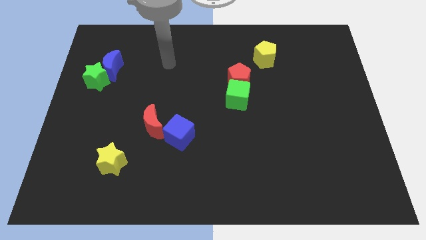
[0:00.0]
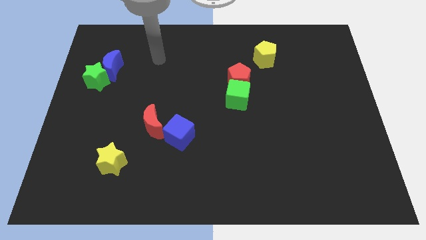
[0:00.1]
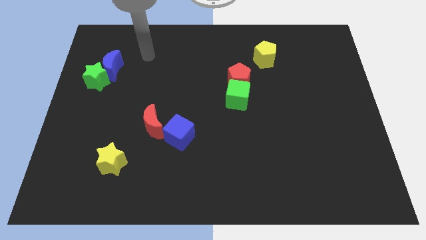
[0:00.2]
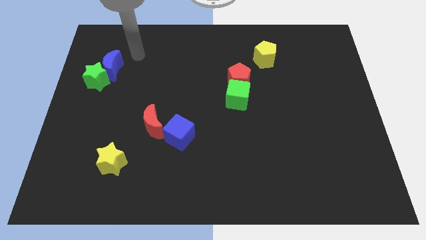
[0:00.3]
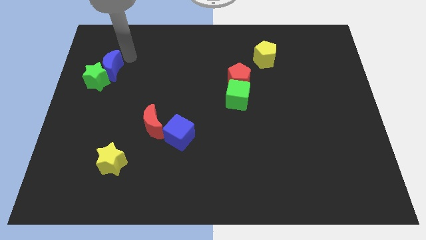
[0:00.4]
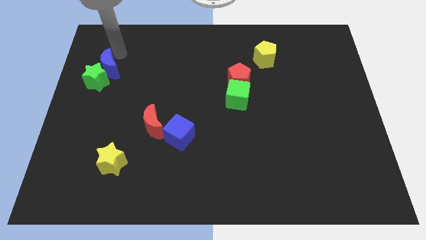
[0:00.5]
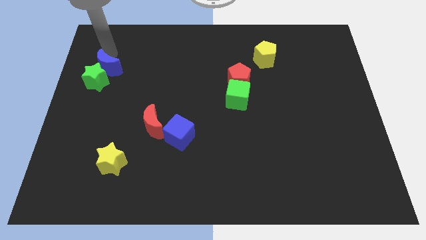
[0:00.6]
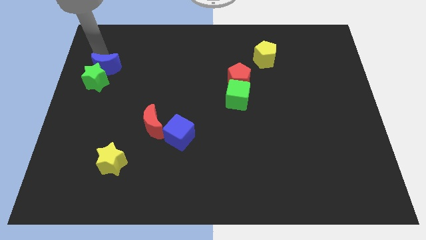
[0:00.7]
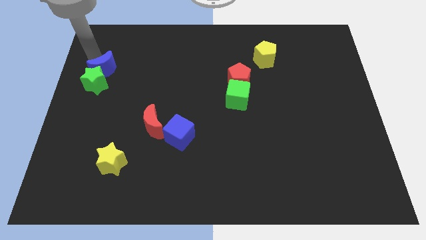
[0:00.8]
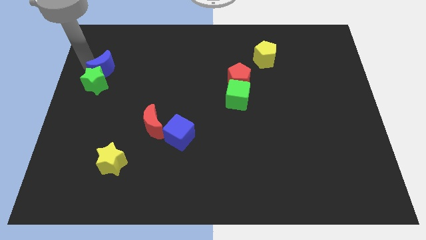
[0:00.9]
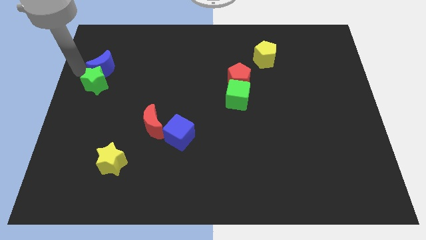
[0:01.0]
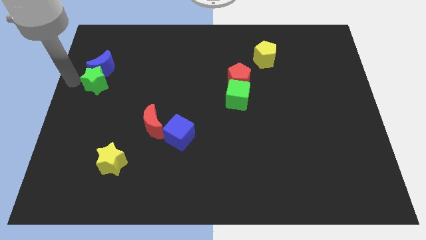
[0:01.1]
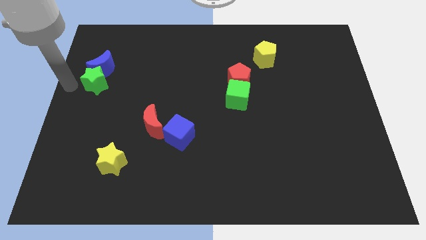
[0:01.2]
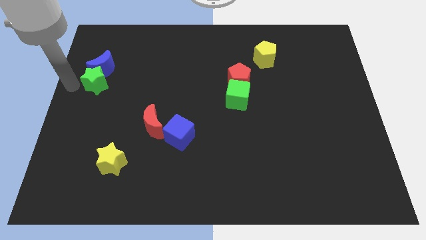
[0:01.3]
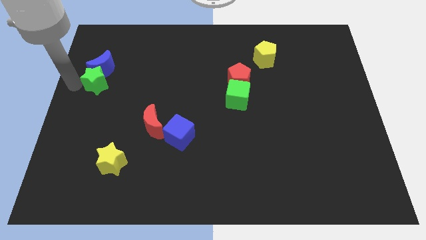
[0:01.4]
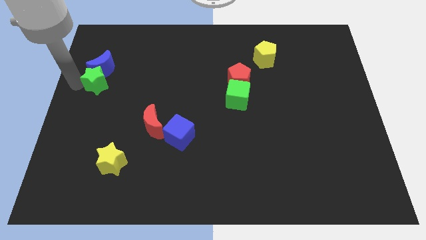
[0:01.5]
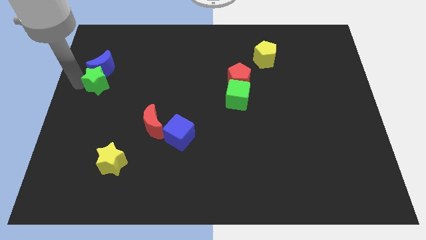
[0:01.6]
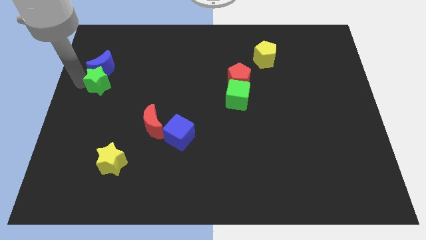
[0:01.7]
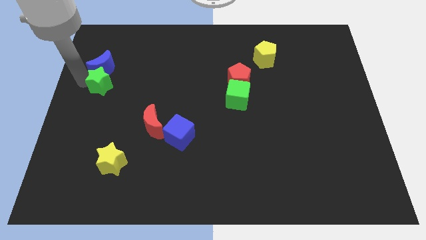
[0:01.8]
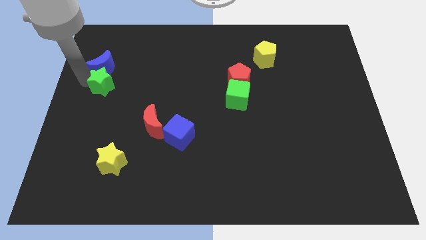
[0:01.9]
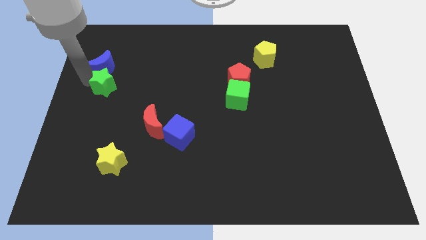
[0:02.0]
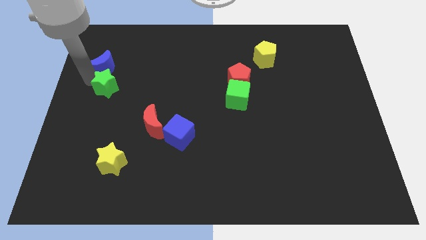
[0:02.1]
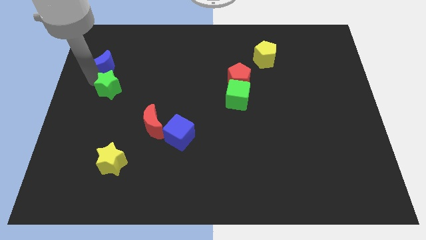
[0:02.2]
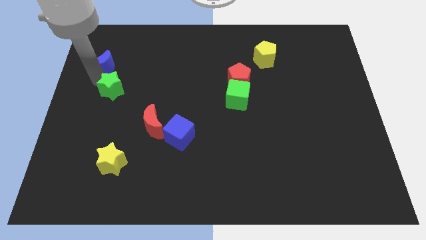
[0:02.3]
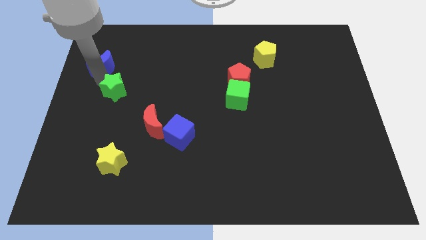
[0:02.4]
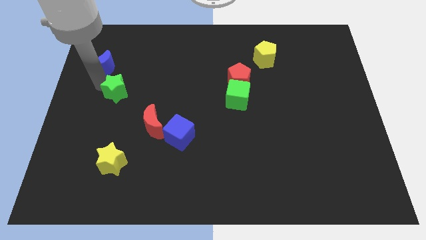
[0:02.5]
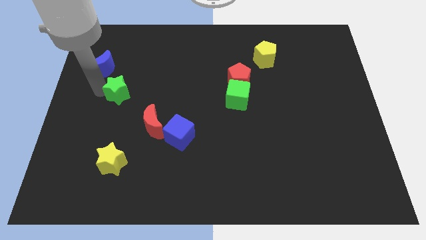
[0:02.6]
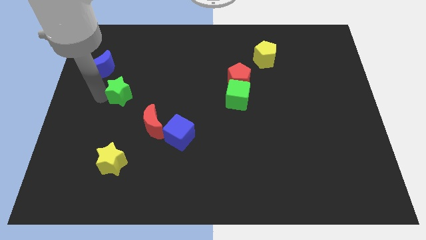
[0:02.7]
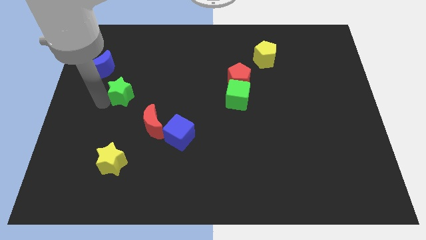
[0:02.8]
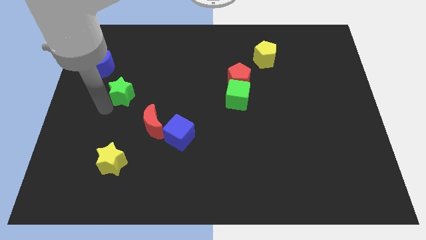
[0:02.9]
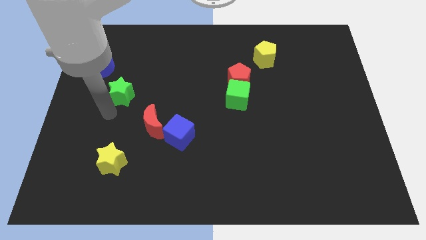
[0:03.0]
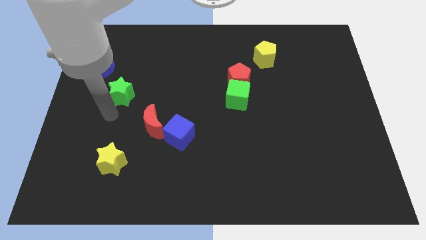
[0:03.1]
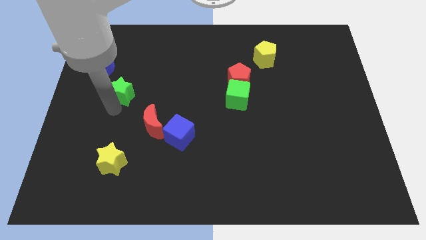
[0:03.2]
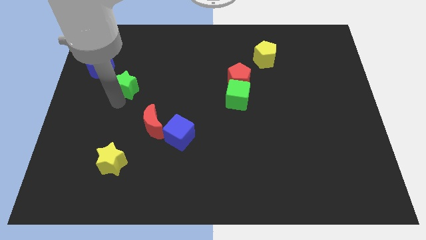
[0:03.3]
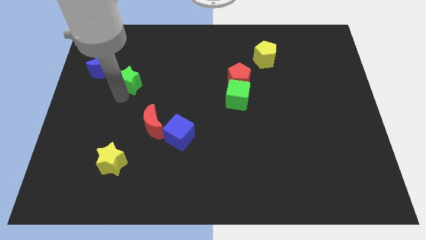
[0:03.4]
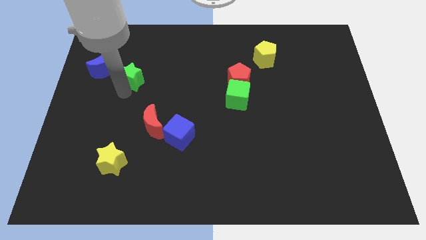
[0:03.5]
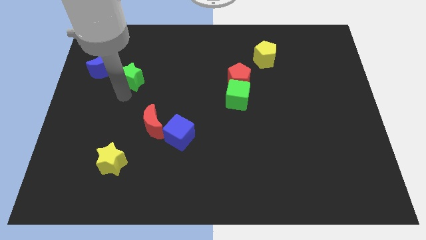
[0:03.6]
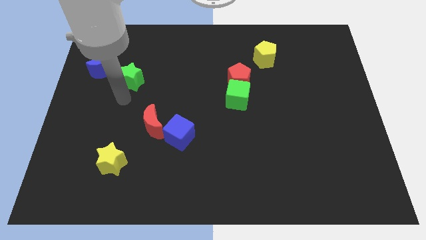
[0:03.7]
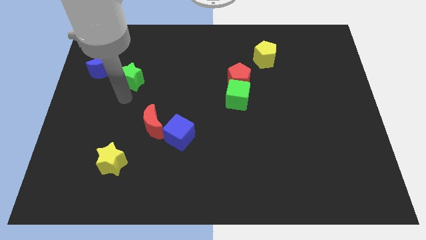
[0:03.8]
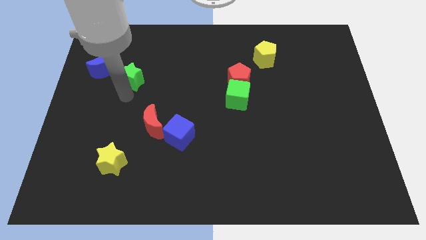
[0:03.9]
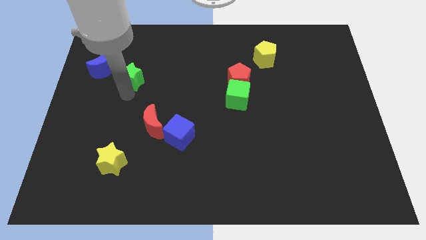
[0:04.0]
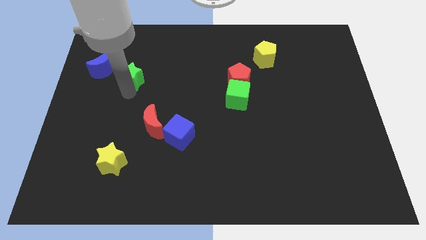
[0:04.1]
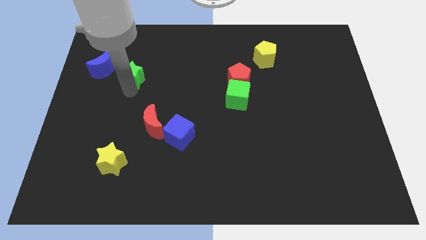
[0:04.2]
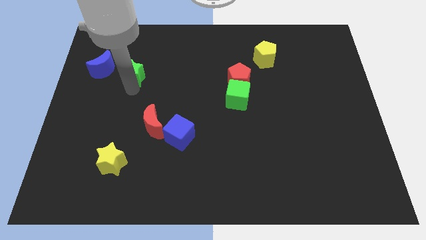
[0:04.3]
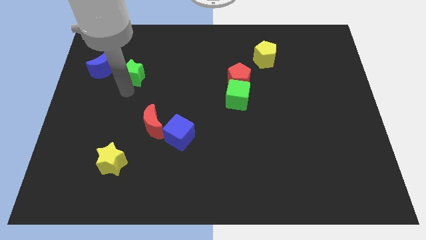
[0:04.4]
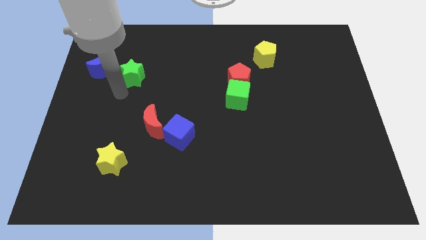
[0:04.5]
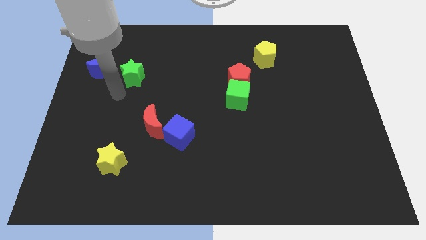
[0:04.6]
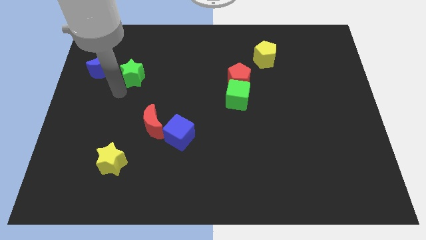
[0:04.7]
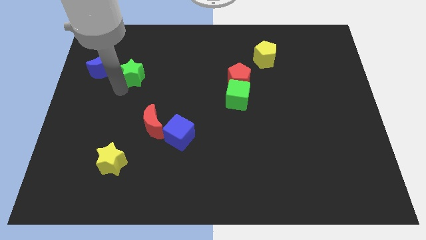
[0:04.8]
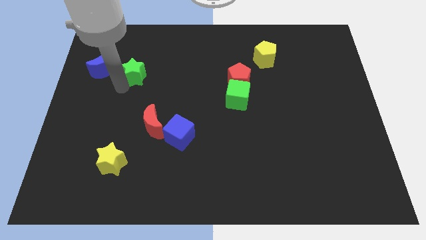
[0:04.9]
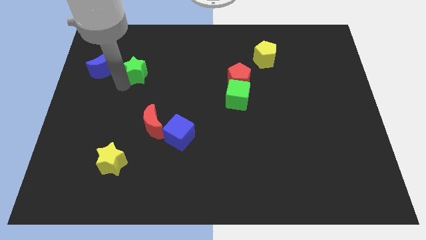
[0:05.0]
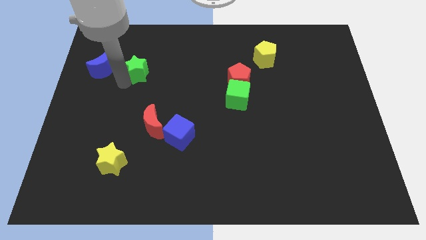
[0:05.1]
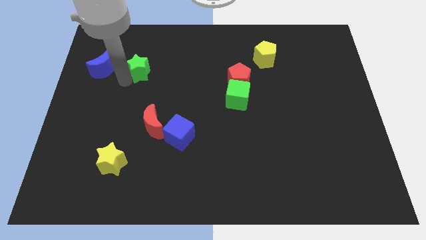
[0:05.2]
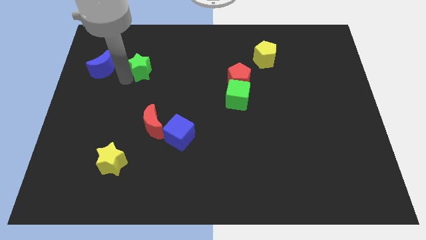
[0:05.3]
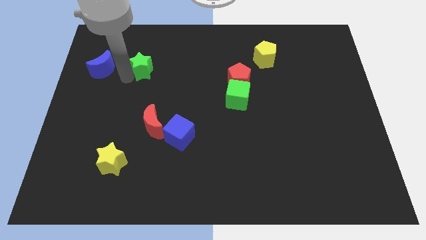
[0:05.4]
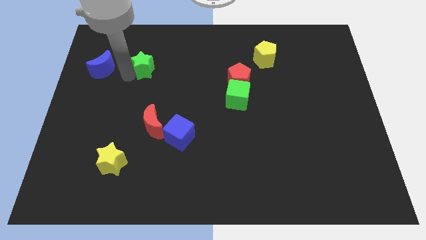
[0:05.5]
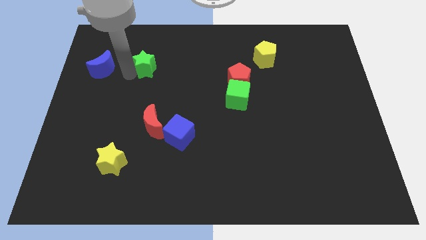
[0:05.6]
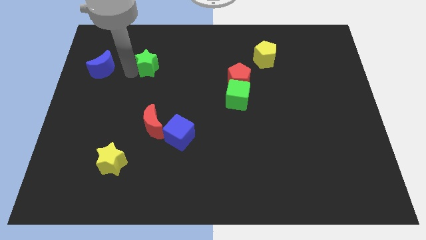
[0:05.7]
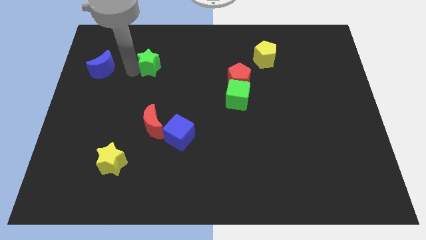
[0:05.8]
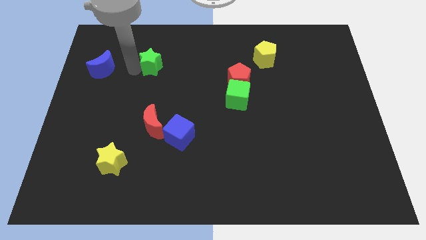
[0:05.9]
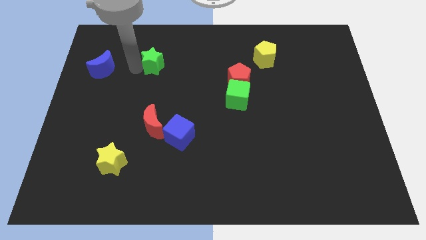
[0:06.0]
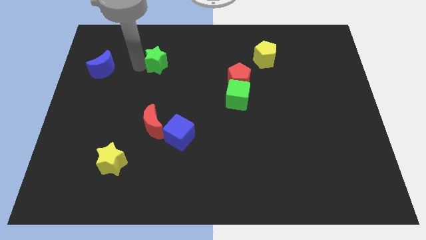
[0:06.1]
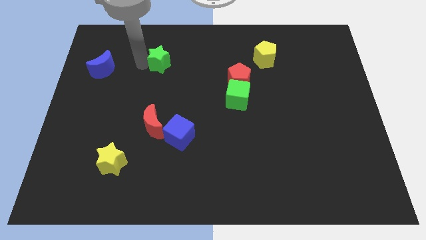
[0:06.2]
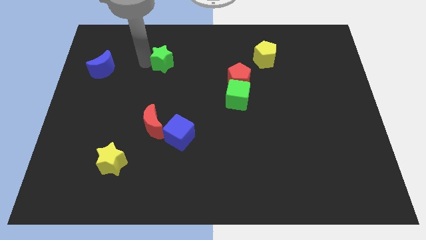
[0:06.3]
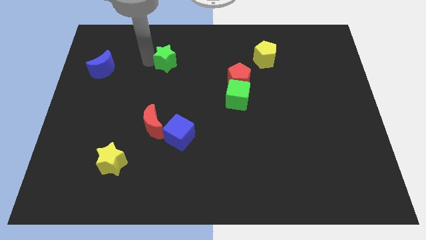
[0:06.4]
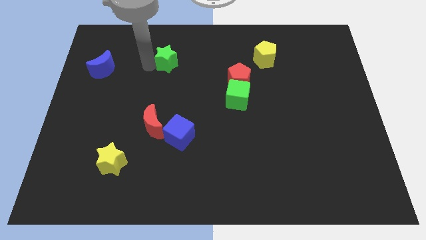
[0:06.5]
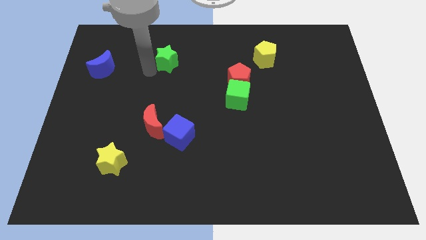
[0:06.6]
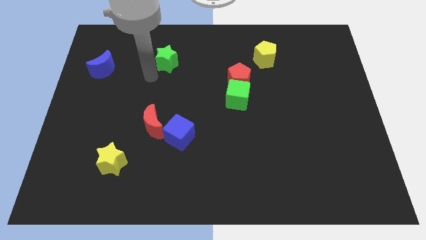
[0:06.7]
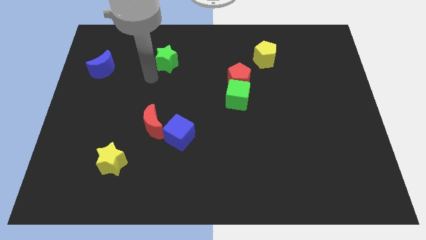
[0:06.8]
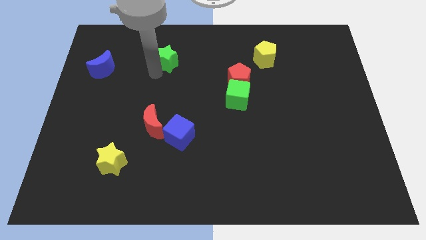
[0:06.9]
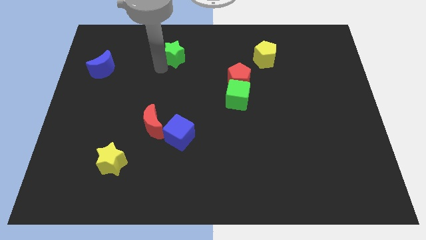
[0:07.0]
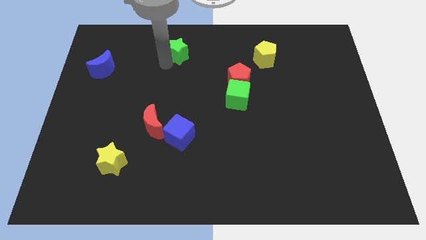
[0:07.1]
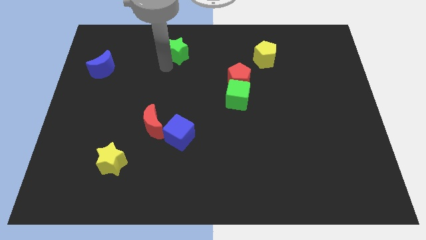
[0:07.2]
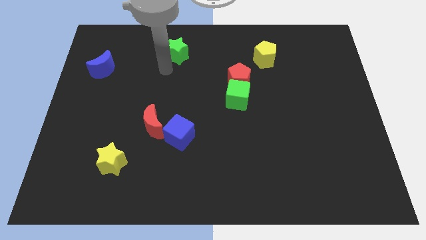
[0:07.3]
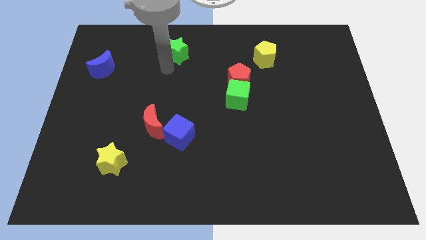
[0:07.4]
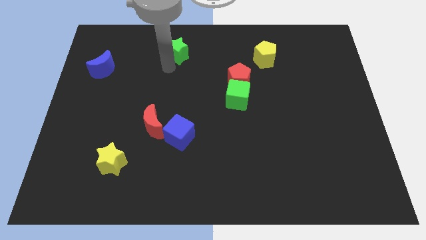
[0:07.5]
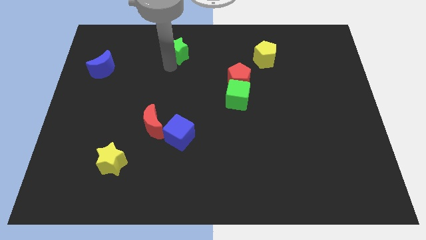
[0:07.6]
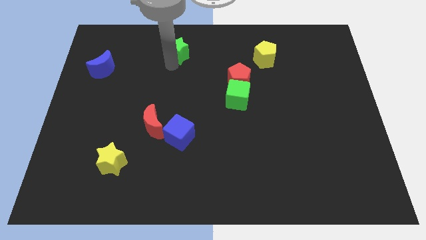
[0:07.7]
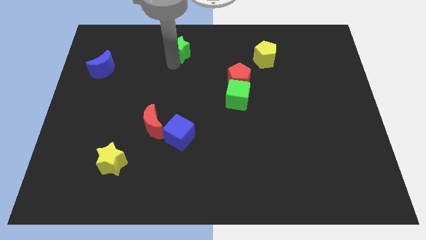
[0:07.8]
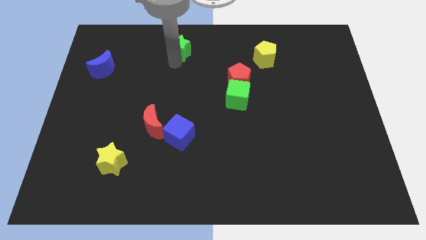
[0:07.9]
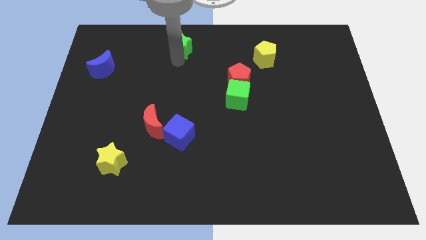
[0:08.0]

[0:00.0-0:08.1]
move the green star to the top
